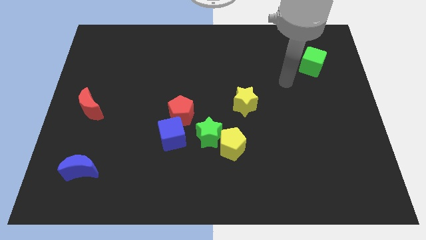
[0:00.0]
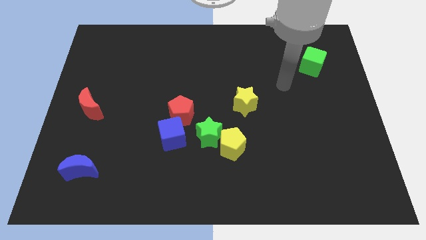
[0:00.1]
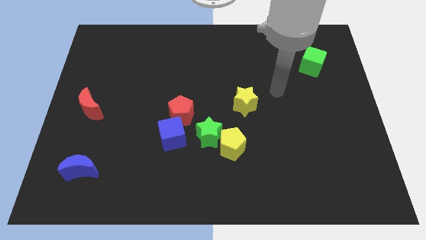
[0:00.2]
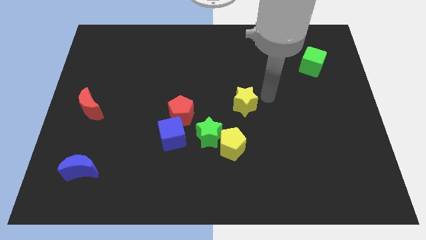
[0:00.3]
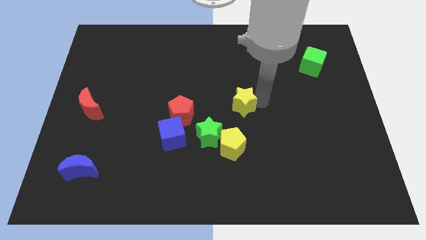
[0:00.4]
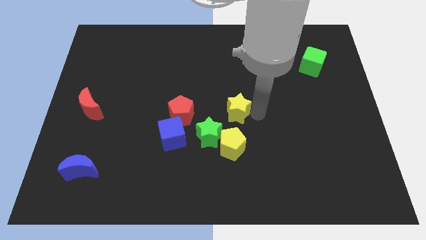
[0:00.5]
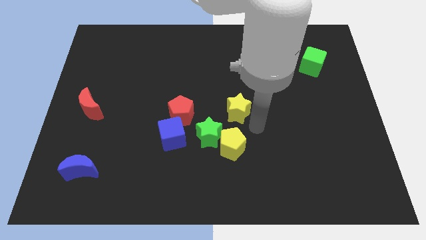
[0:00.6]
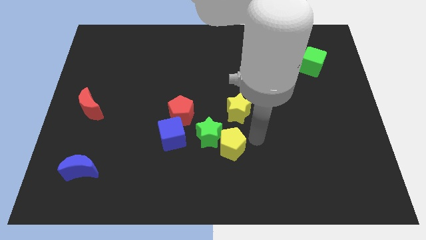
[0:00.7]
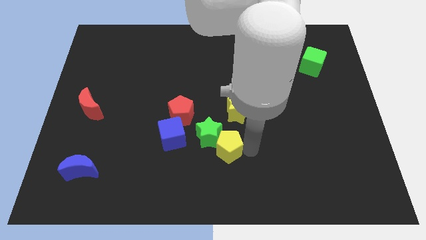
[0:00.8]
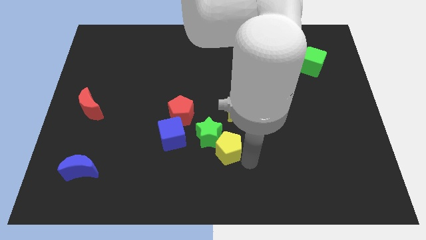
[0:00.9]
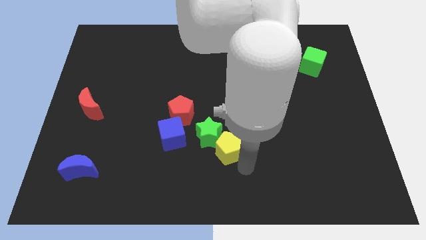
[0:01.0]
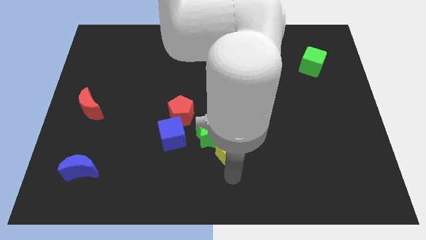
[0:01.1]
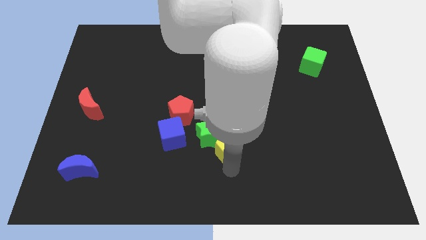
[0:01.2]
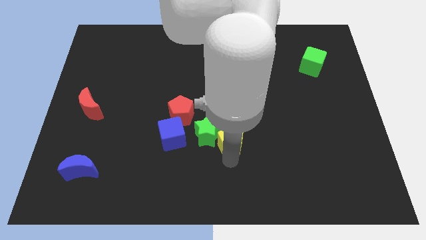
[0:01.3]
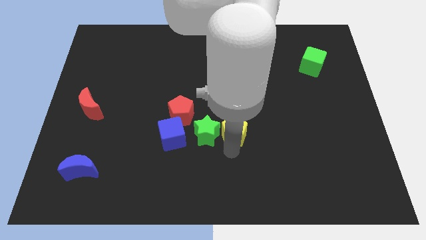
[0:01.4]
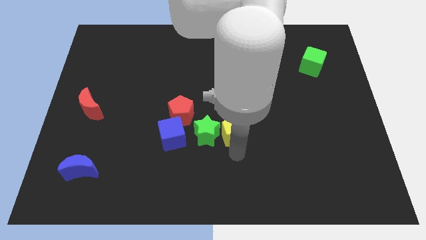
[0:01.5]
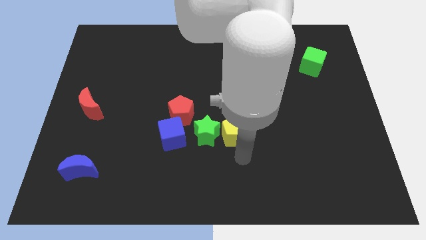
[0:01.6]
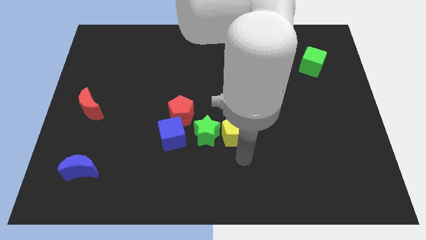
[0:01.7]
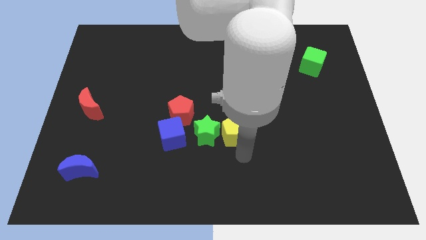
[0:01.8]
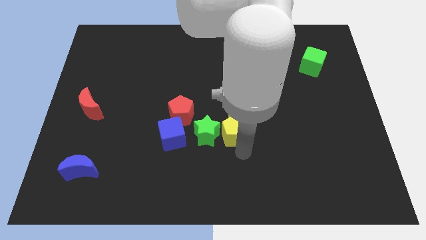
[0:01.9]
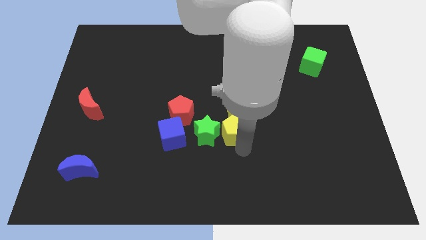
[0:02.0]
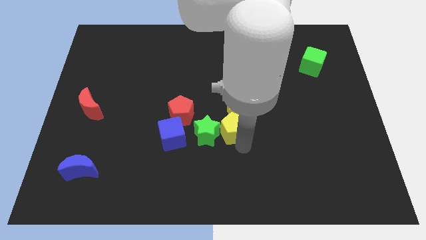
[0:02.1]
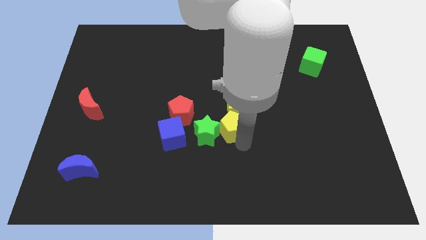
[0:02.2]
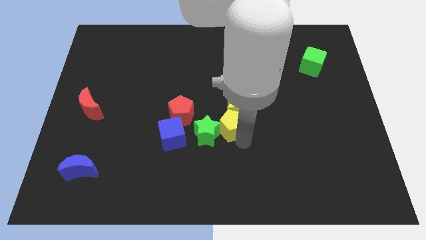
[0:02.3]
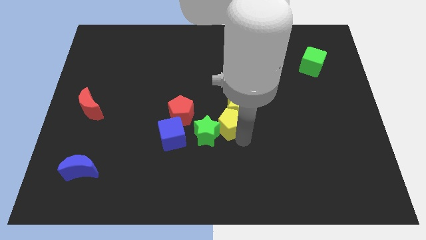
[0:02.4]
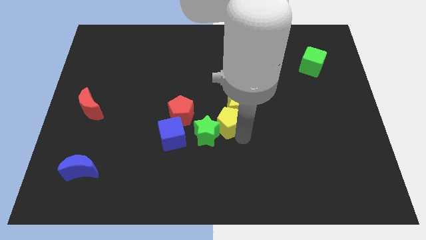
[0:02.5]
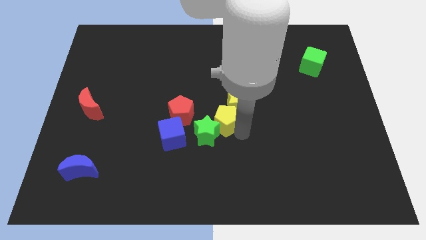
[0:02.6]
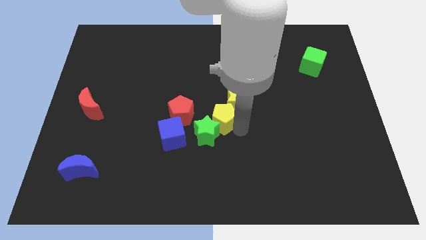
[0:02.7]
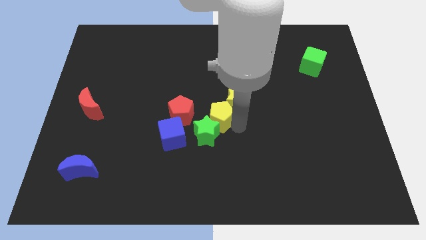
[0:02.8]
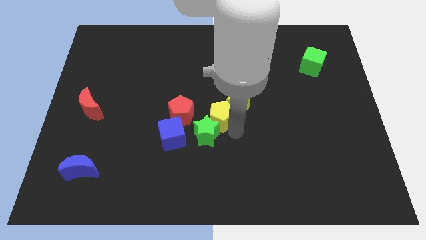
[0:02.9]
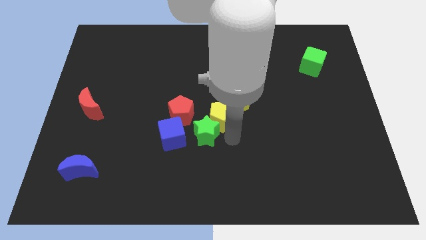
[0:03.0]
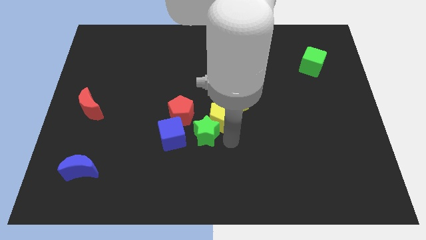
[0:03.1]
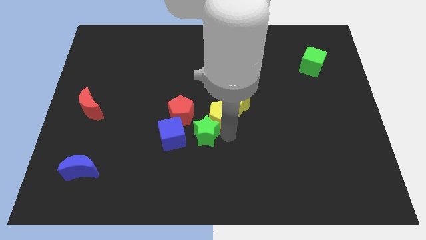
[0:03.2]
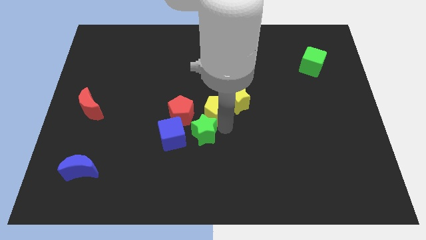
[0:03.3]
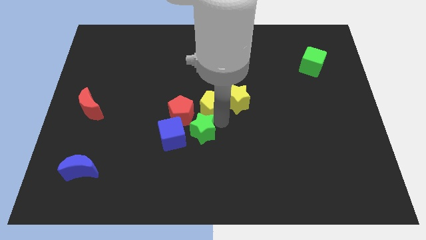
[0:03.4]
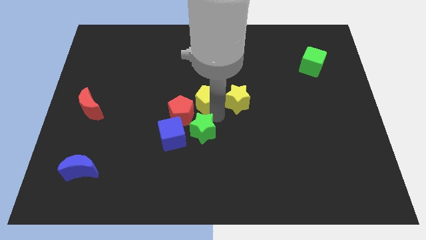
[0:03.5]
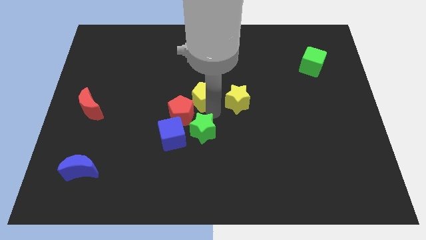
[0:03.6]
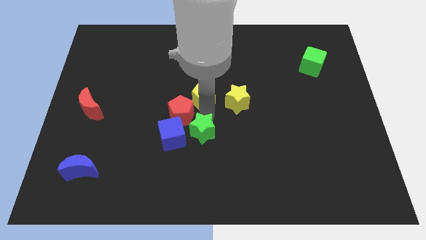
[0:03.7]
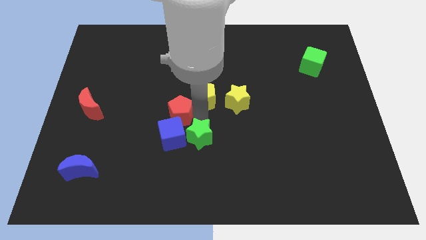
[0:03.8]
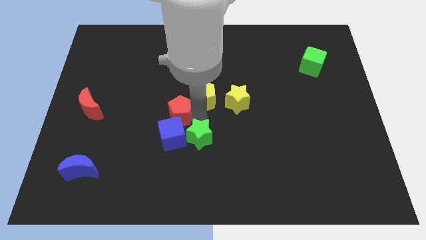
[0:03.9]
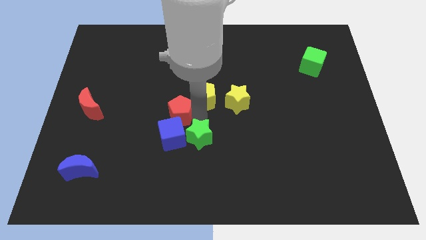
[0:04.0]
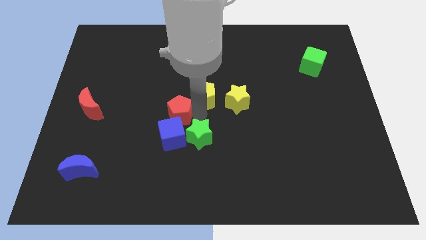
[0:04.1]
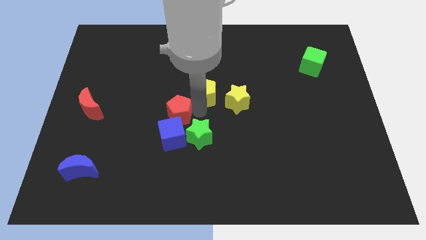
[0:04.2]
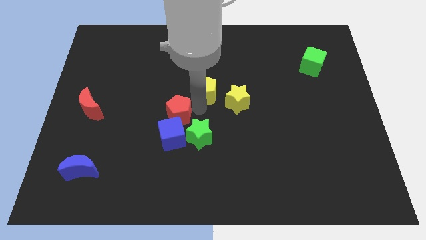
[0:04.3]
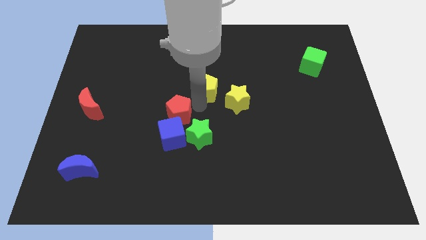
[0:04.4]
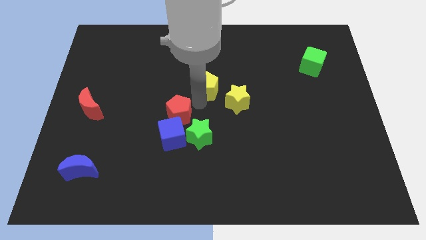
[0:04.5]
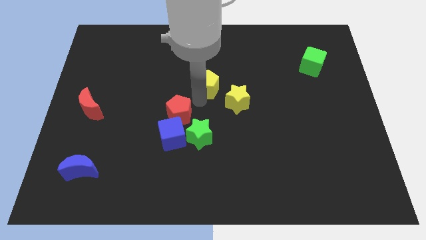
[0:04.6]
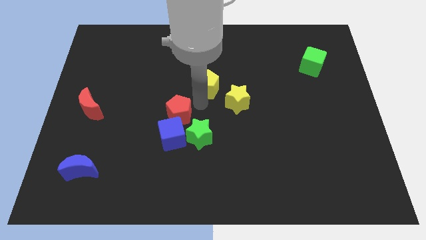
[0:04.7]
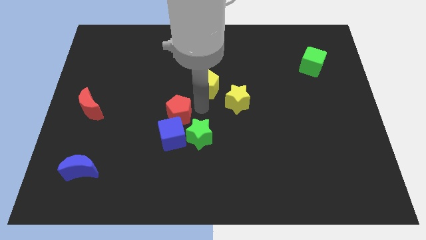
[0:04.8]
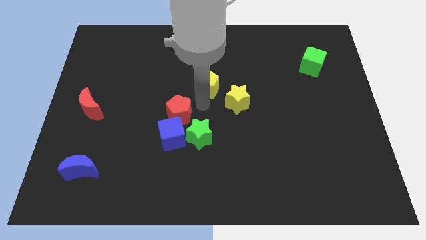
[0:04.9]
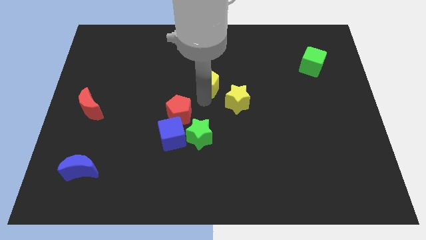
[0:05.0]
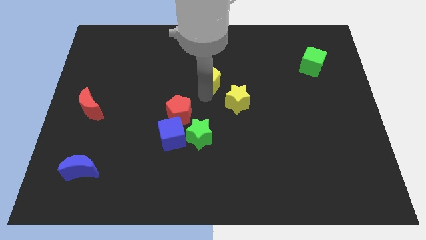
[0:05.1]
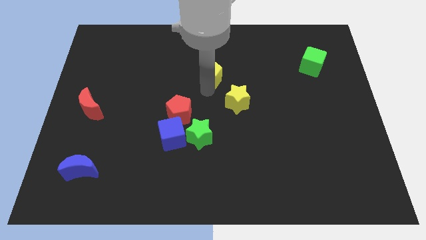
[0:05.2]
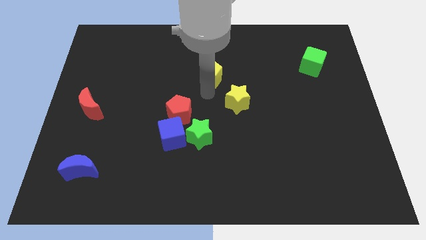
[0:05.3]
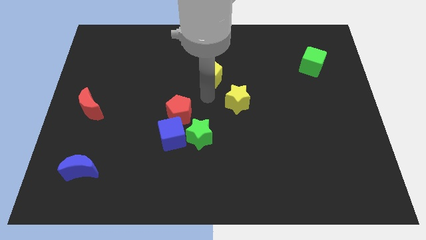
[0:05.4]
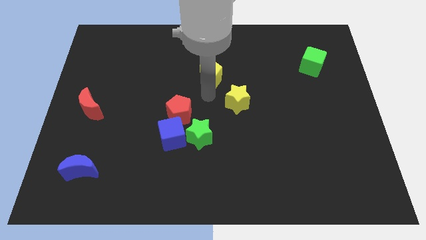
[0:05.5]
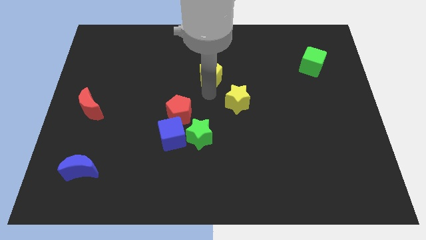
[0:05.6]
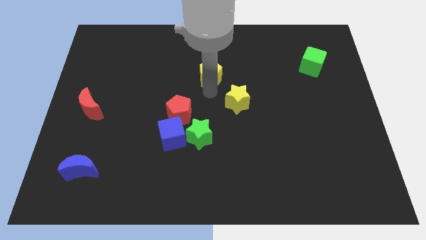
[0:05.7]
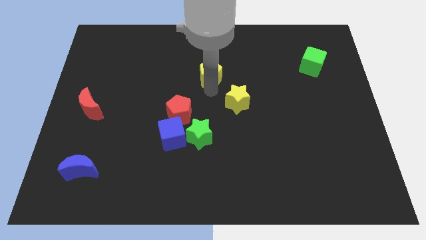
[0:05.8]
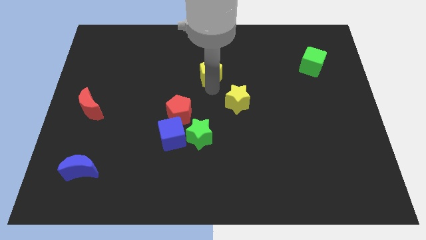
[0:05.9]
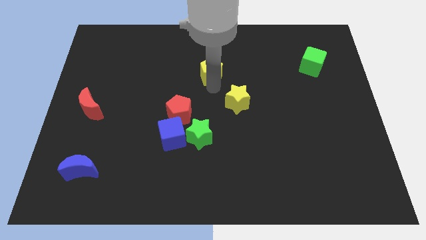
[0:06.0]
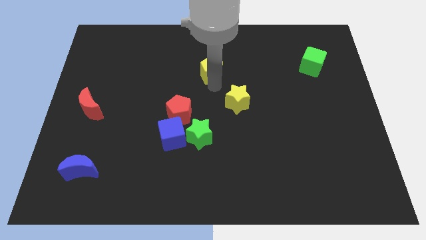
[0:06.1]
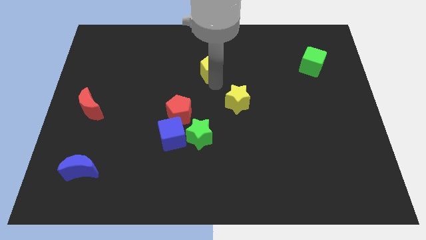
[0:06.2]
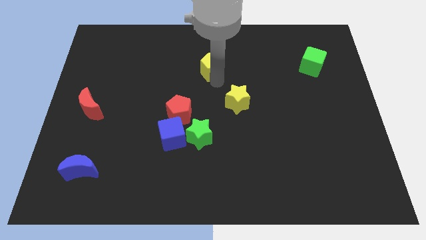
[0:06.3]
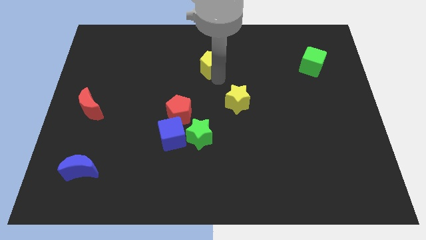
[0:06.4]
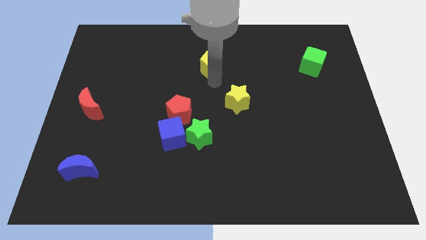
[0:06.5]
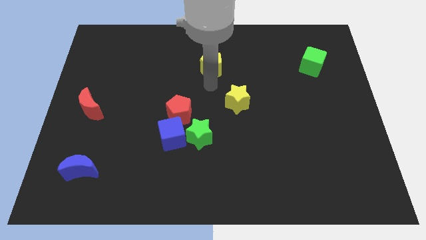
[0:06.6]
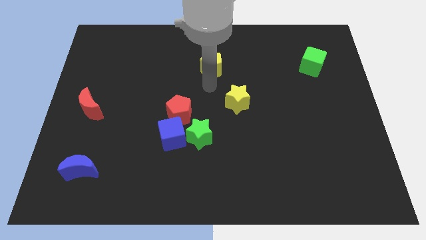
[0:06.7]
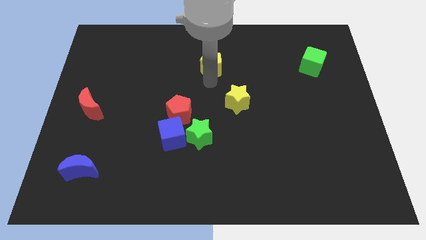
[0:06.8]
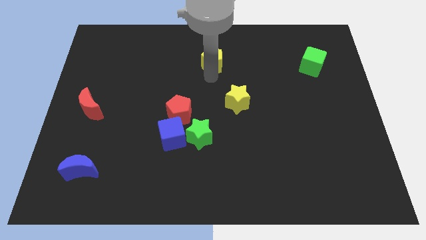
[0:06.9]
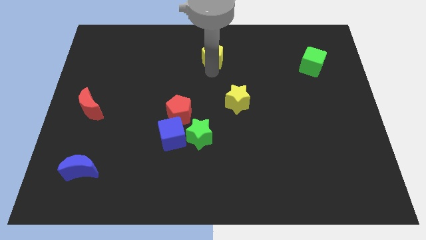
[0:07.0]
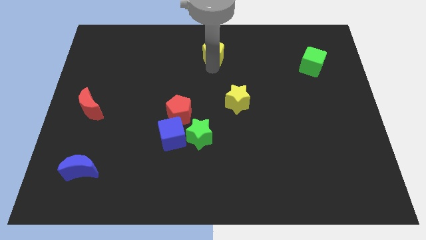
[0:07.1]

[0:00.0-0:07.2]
slide the yellow pentagon to the towards your base
